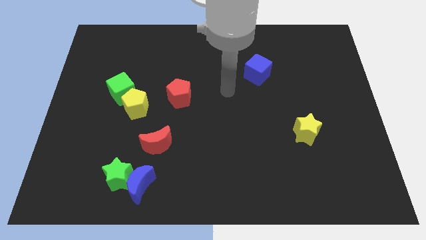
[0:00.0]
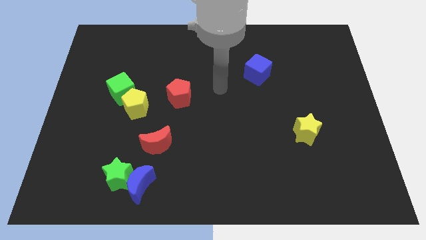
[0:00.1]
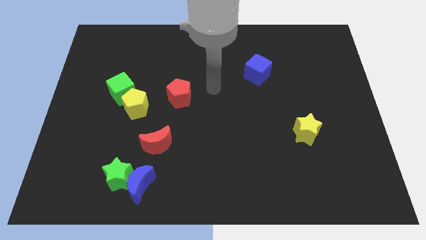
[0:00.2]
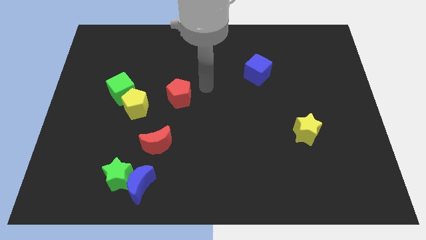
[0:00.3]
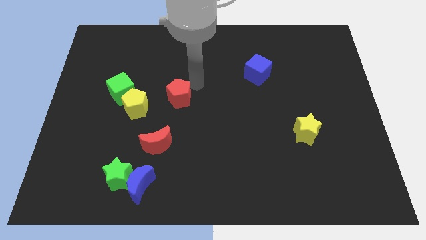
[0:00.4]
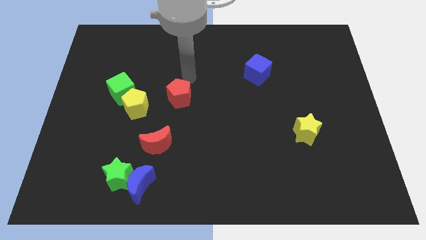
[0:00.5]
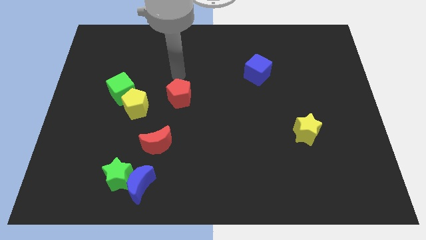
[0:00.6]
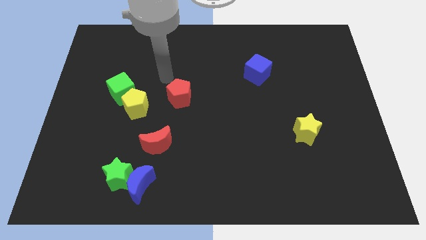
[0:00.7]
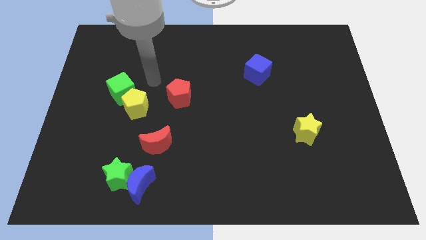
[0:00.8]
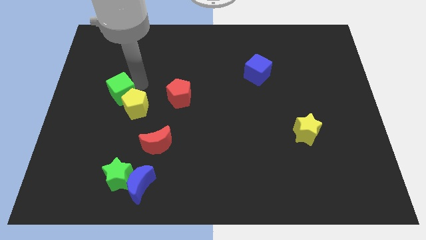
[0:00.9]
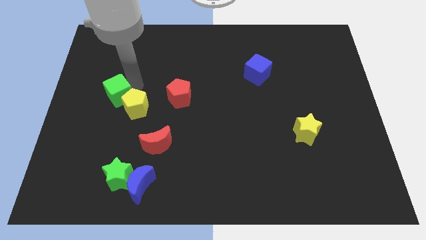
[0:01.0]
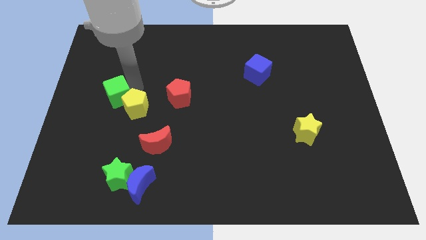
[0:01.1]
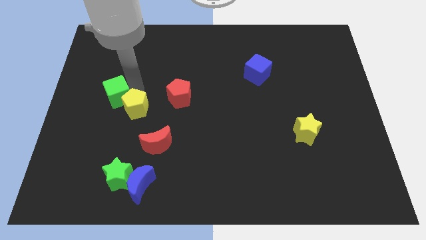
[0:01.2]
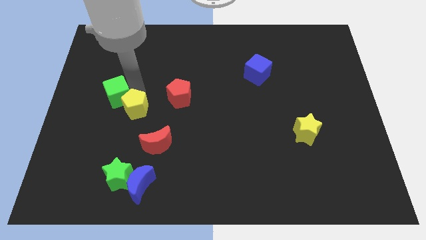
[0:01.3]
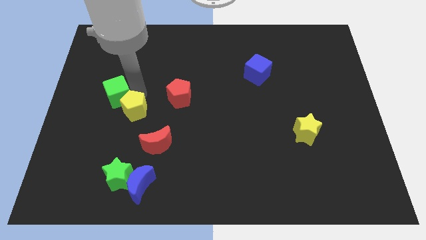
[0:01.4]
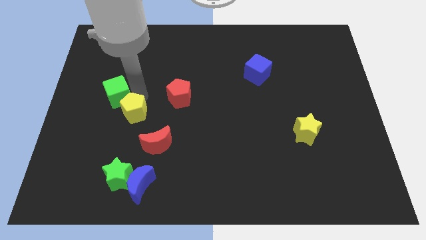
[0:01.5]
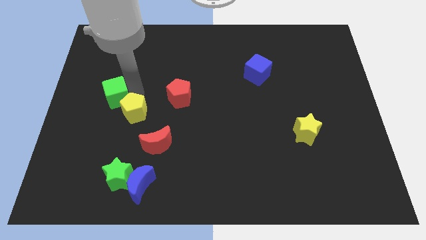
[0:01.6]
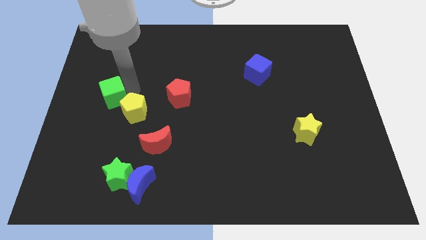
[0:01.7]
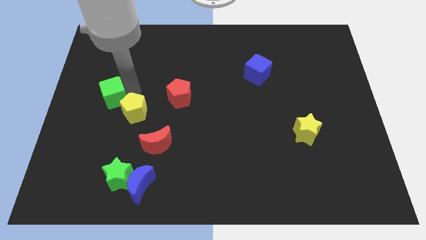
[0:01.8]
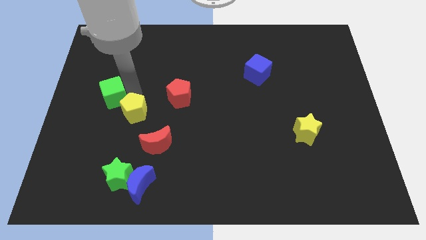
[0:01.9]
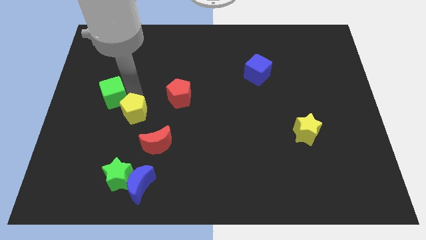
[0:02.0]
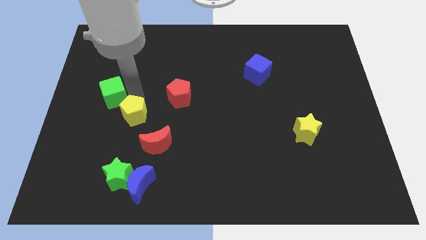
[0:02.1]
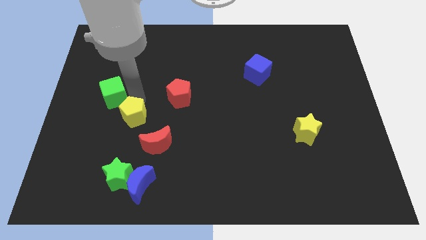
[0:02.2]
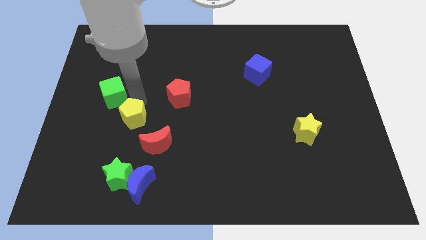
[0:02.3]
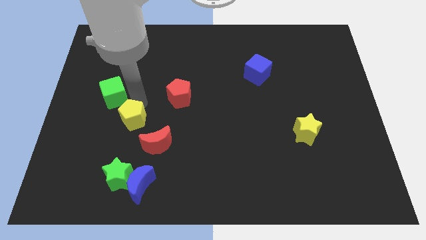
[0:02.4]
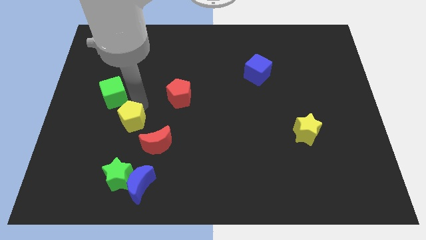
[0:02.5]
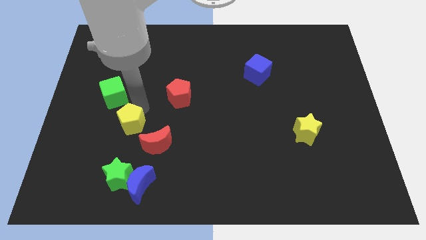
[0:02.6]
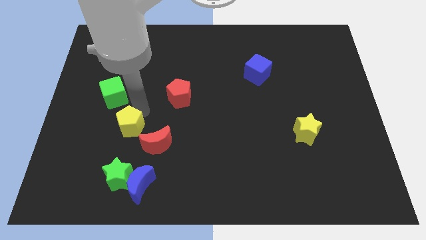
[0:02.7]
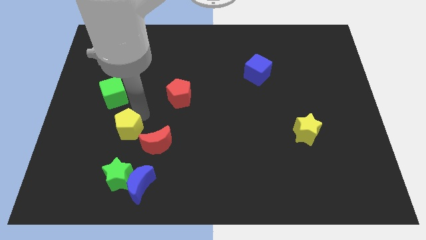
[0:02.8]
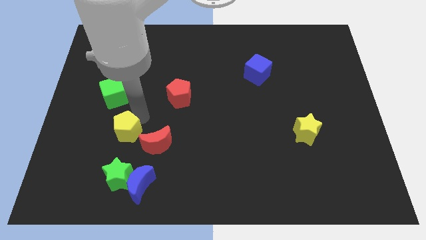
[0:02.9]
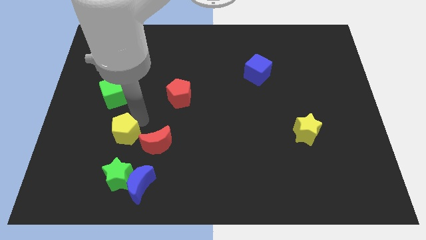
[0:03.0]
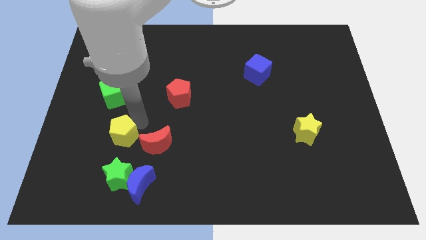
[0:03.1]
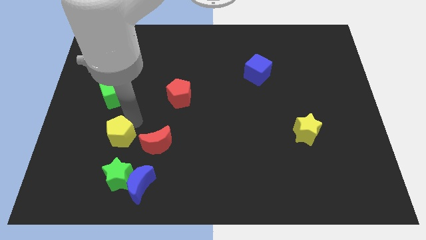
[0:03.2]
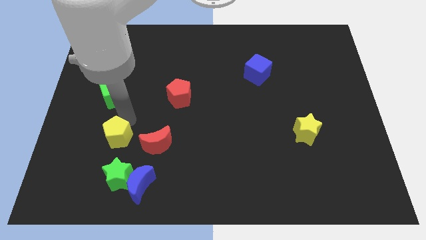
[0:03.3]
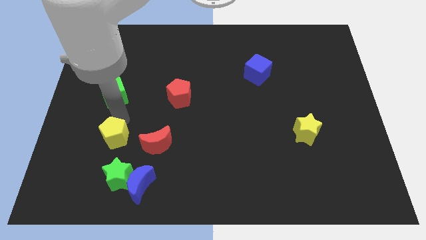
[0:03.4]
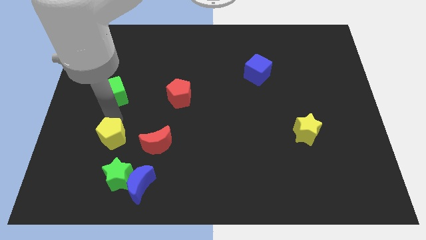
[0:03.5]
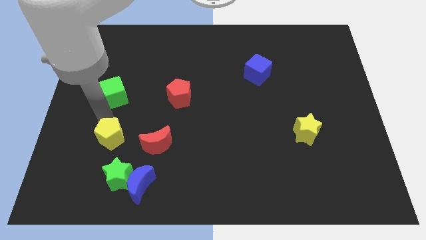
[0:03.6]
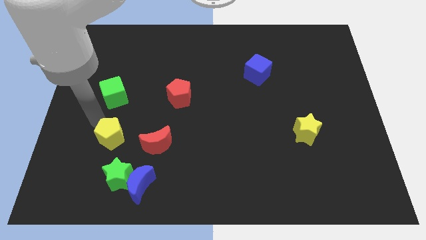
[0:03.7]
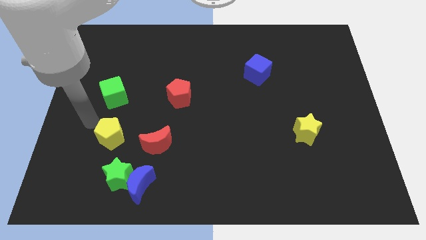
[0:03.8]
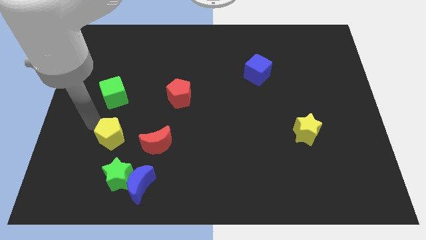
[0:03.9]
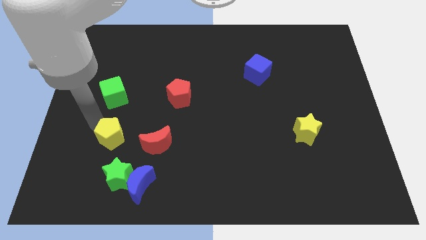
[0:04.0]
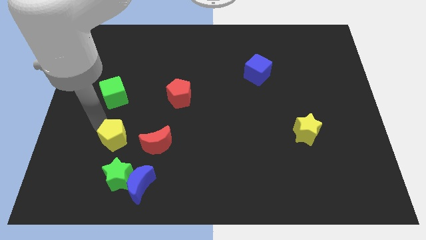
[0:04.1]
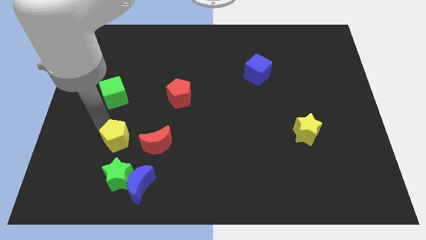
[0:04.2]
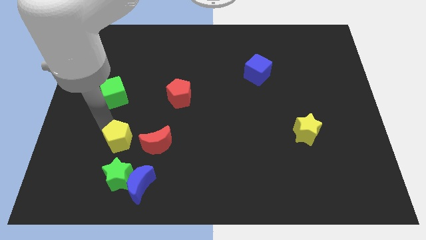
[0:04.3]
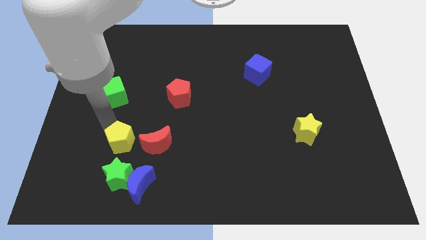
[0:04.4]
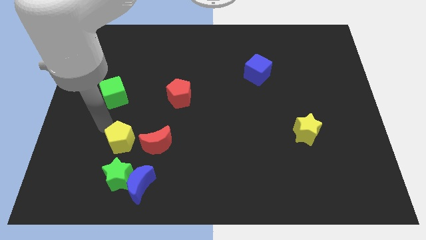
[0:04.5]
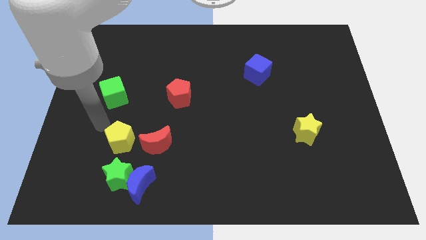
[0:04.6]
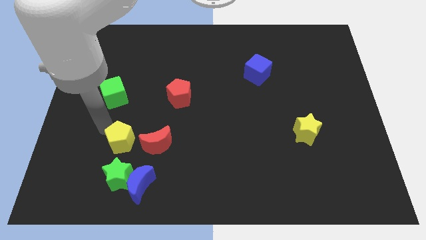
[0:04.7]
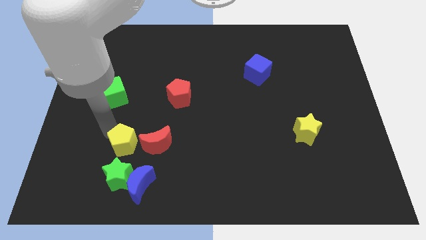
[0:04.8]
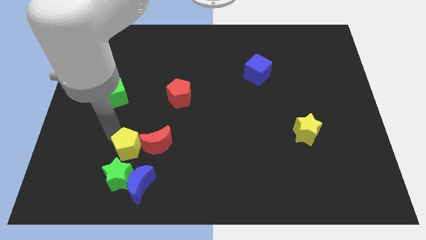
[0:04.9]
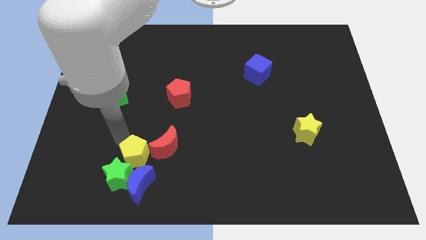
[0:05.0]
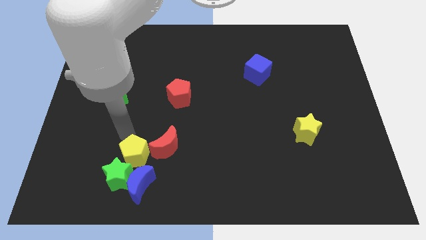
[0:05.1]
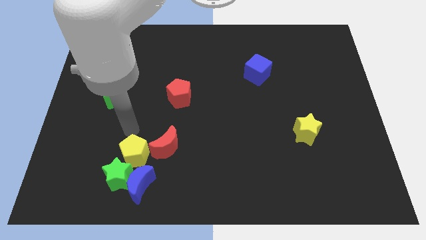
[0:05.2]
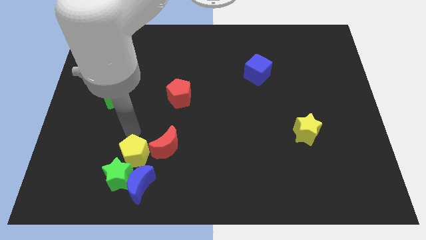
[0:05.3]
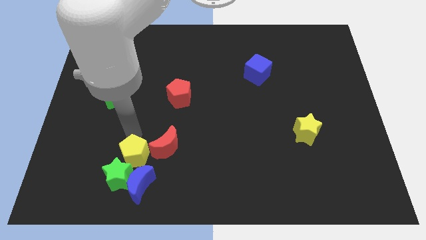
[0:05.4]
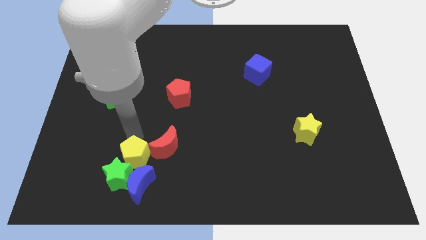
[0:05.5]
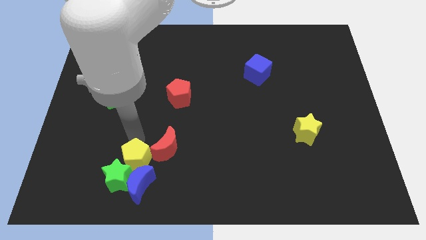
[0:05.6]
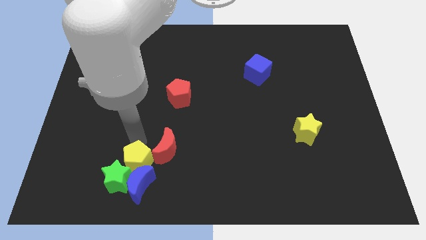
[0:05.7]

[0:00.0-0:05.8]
slide the yellow pentagon towards the blue moon

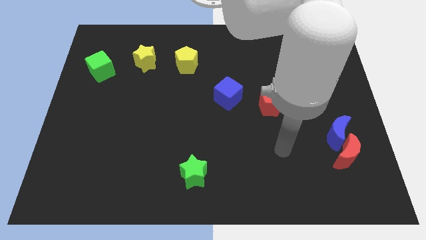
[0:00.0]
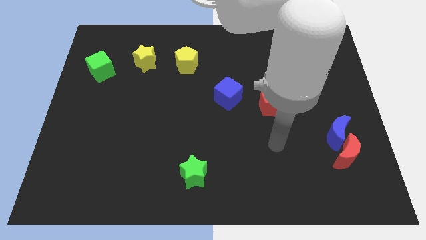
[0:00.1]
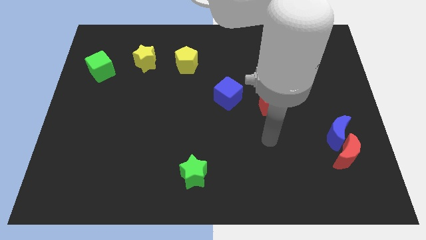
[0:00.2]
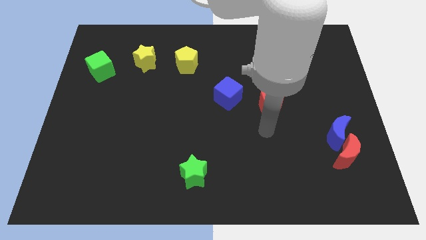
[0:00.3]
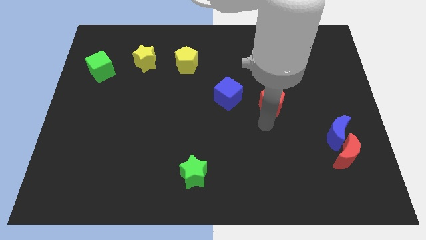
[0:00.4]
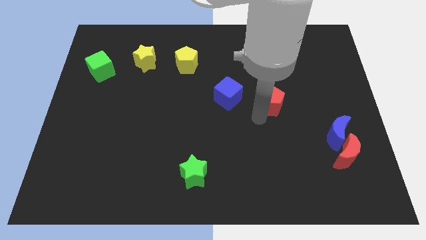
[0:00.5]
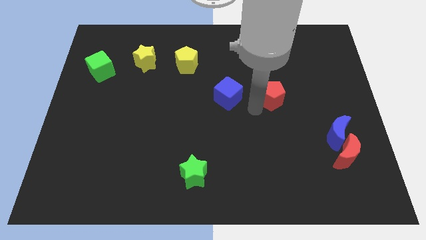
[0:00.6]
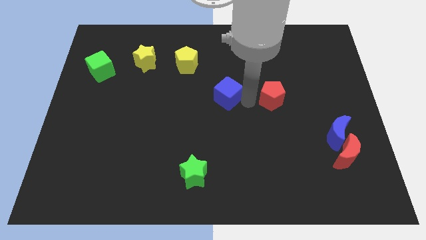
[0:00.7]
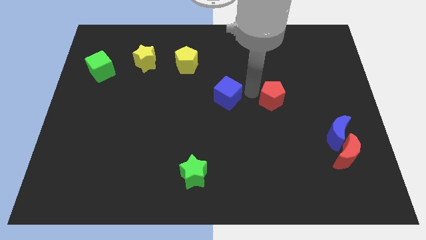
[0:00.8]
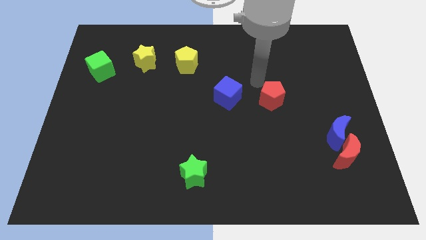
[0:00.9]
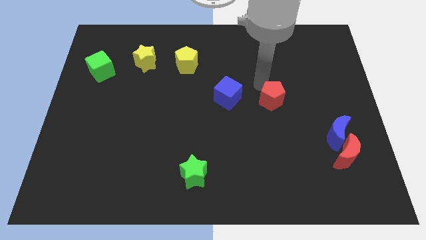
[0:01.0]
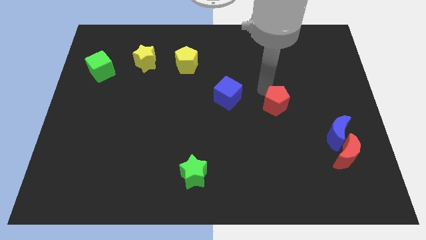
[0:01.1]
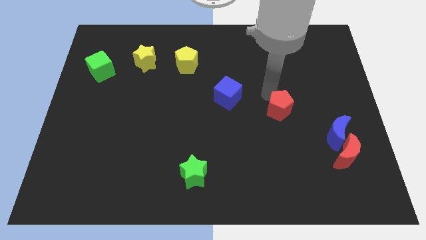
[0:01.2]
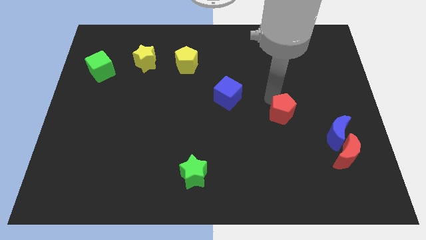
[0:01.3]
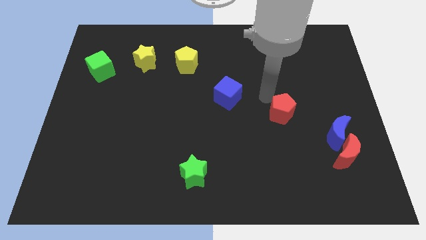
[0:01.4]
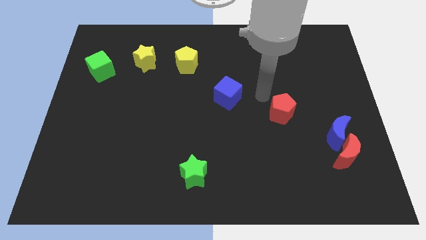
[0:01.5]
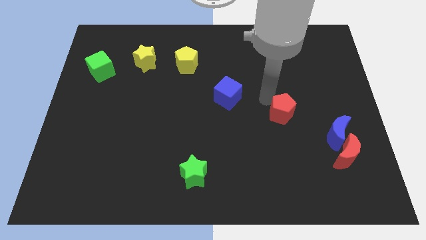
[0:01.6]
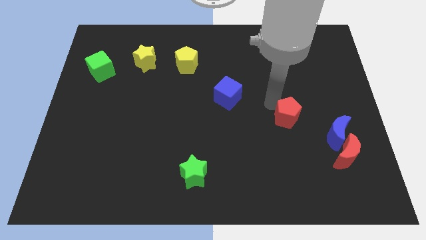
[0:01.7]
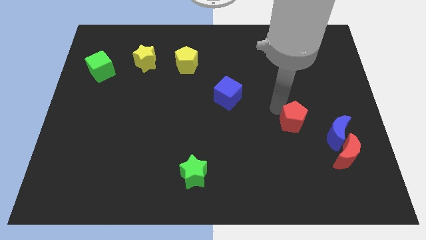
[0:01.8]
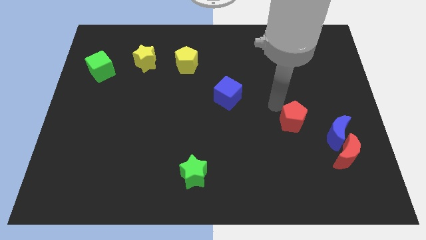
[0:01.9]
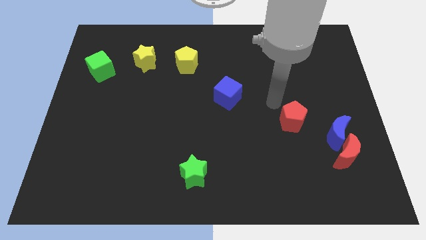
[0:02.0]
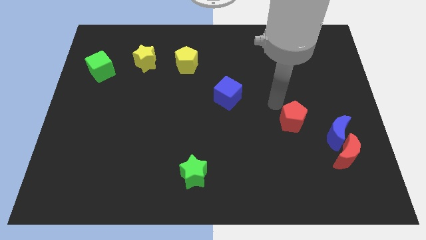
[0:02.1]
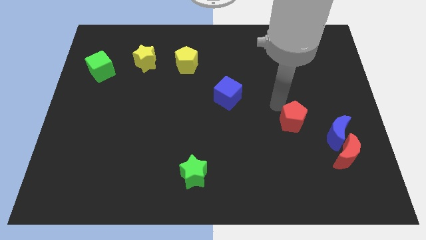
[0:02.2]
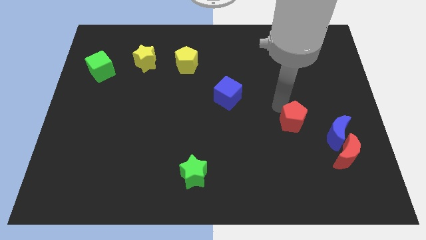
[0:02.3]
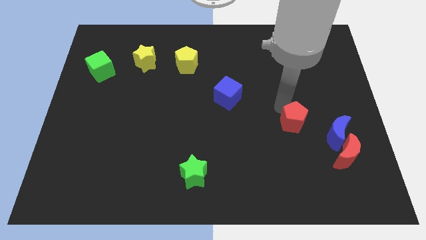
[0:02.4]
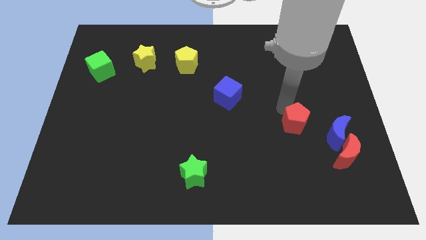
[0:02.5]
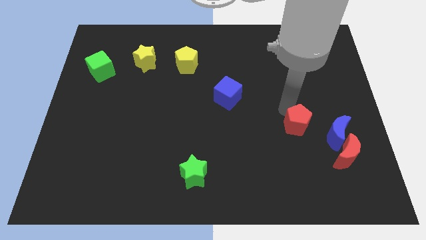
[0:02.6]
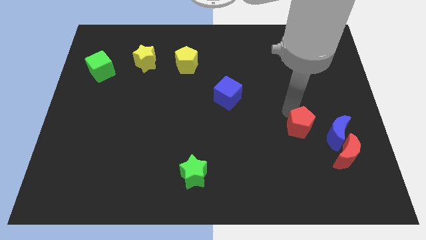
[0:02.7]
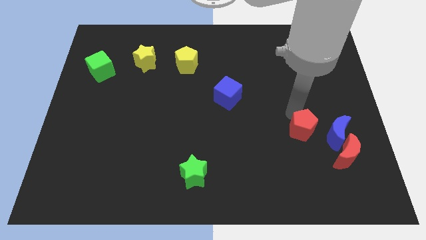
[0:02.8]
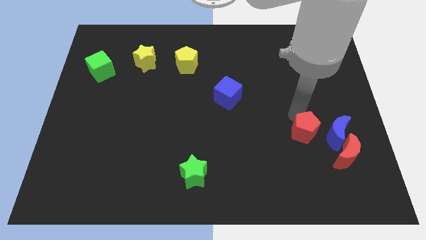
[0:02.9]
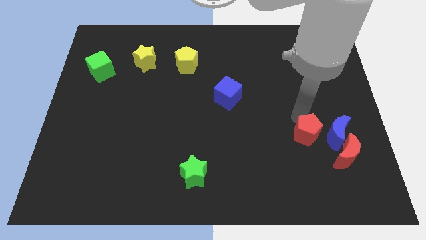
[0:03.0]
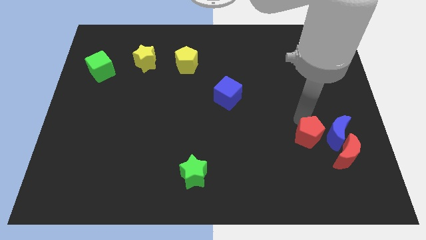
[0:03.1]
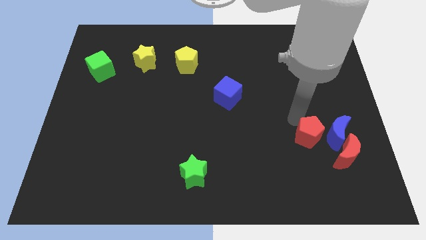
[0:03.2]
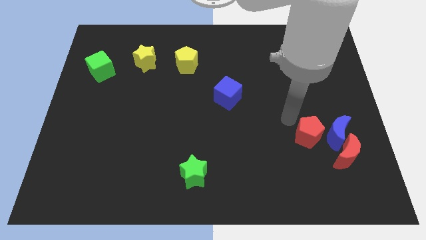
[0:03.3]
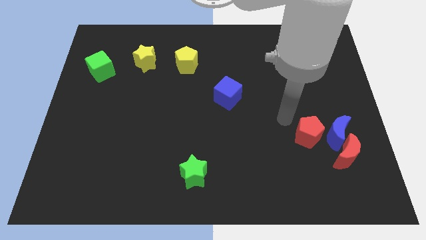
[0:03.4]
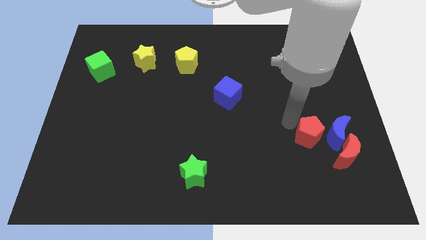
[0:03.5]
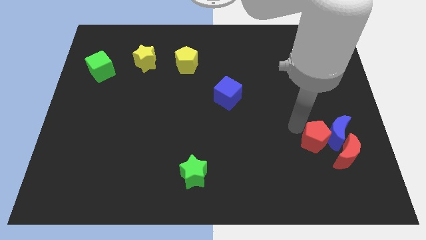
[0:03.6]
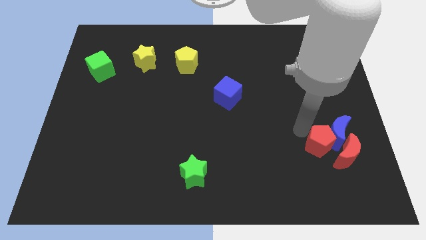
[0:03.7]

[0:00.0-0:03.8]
slide the red pentagon next to the red moon
